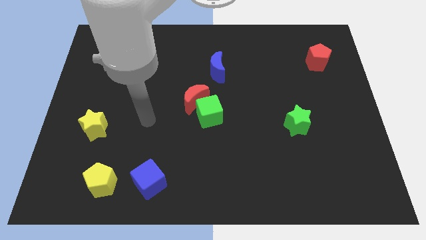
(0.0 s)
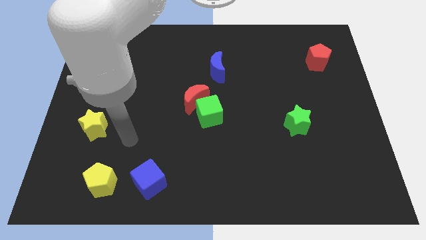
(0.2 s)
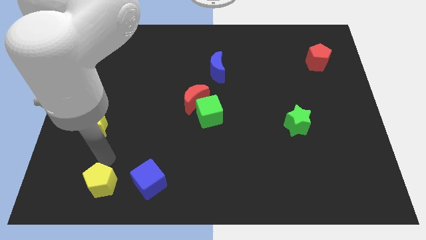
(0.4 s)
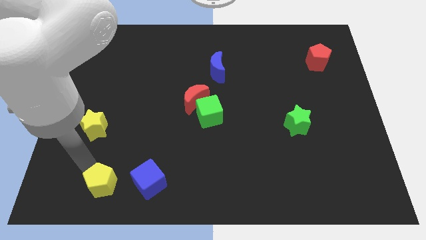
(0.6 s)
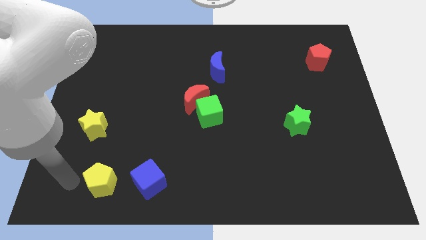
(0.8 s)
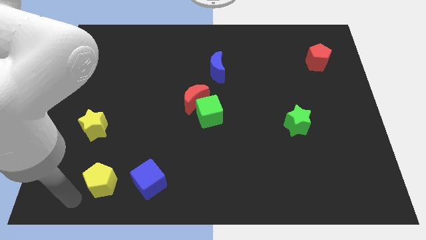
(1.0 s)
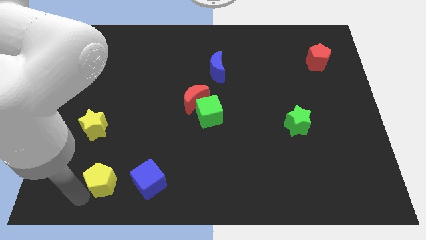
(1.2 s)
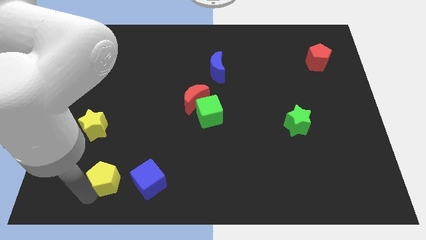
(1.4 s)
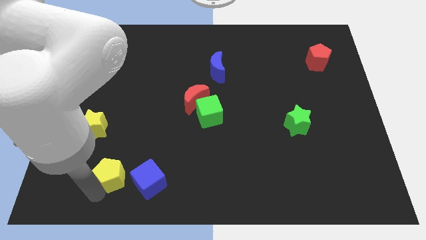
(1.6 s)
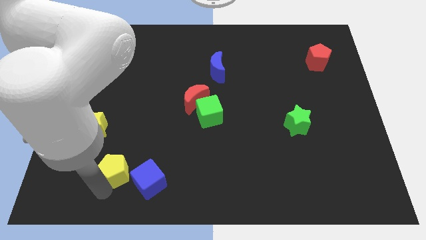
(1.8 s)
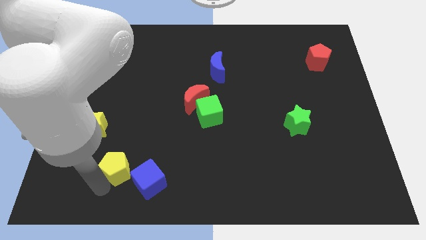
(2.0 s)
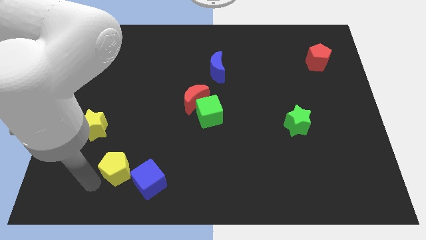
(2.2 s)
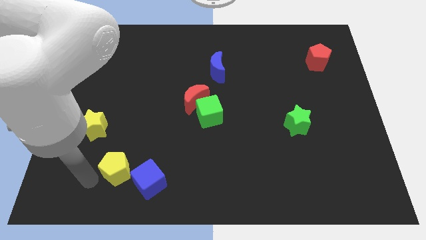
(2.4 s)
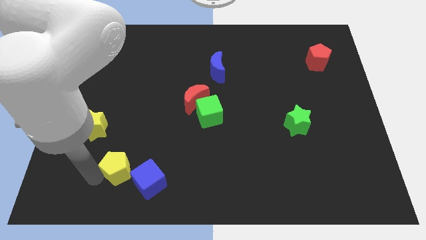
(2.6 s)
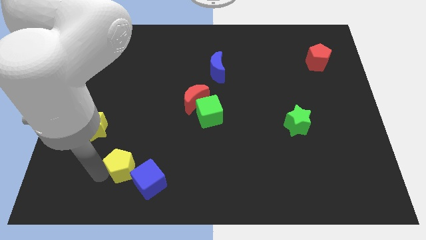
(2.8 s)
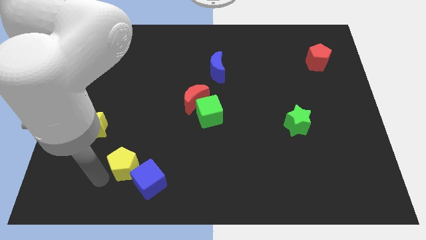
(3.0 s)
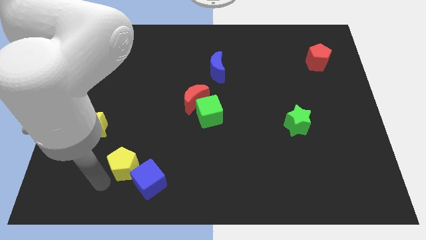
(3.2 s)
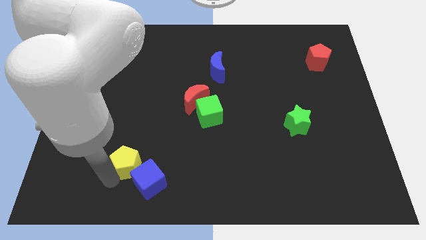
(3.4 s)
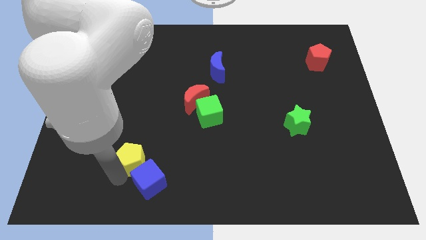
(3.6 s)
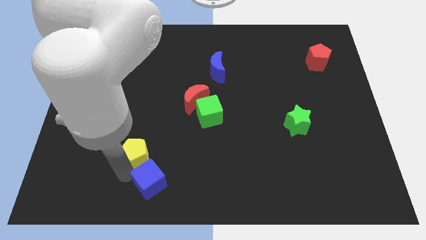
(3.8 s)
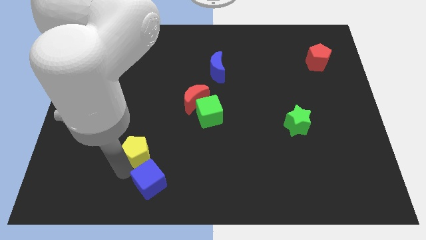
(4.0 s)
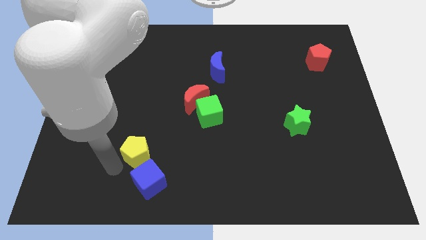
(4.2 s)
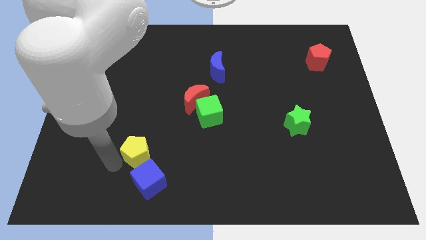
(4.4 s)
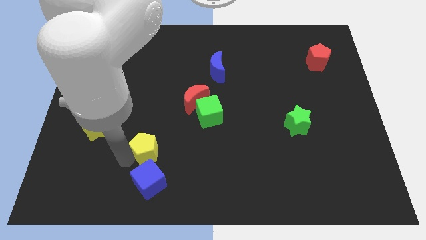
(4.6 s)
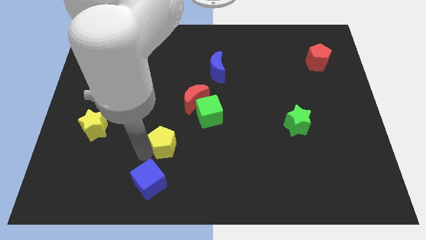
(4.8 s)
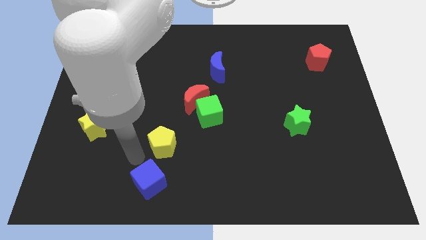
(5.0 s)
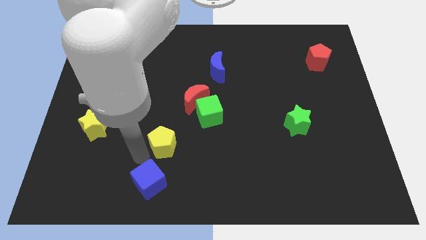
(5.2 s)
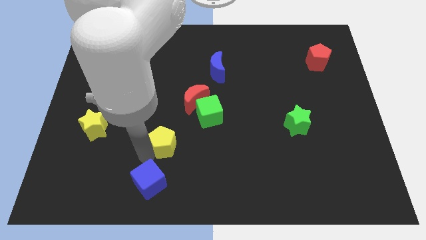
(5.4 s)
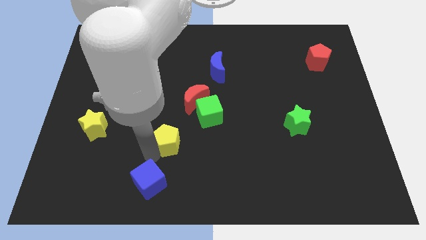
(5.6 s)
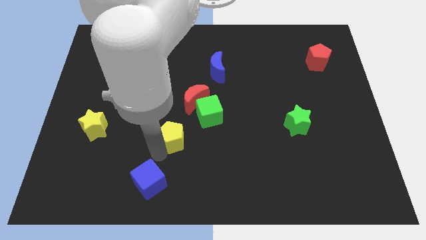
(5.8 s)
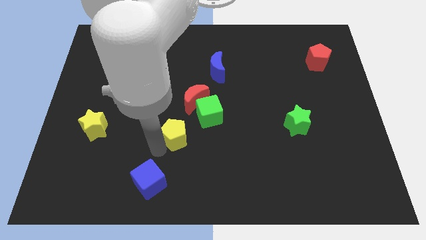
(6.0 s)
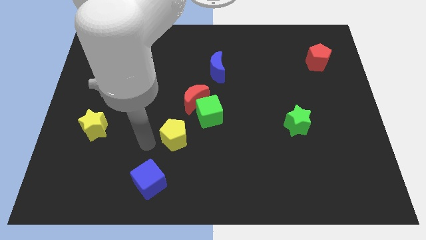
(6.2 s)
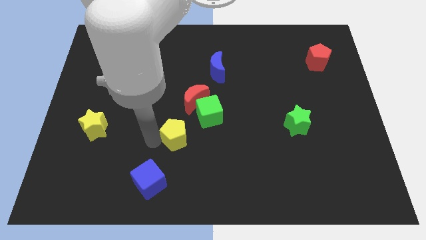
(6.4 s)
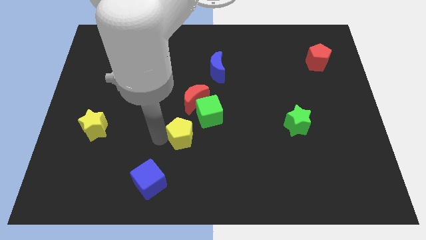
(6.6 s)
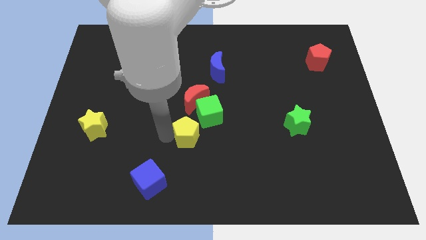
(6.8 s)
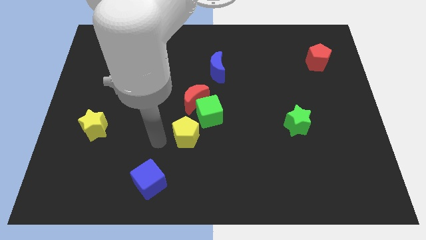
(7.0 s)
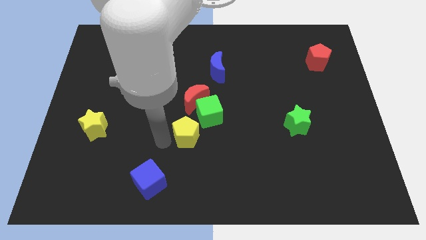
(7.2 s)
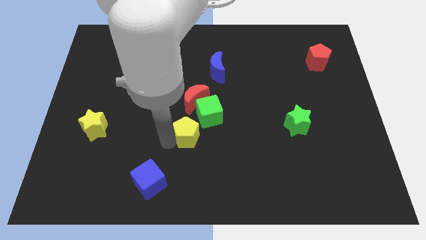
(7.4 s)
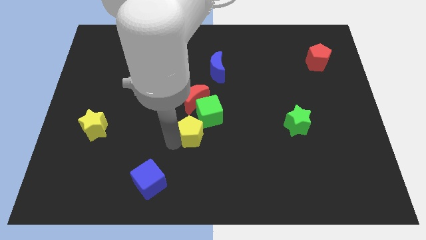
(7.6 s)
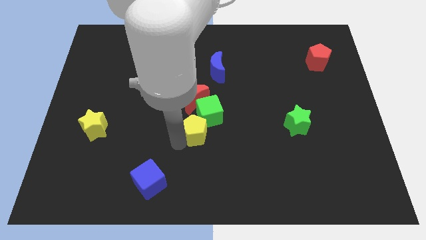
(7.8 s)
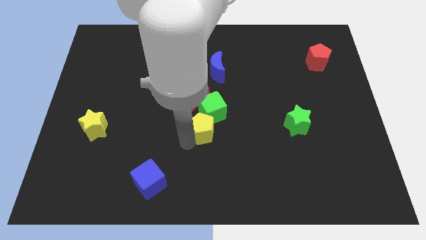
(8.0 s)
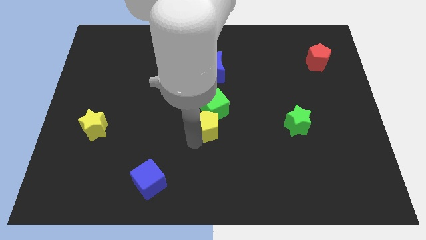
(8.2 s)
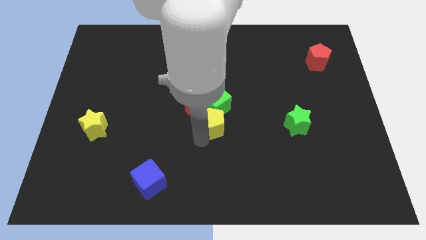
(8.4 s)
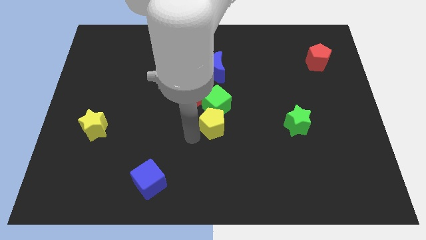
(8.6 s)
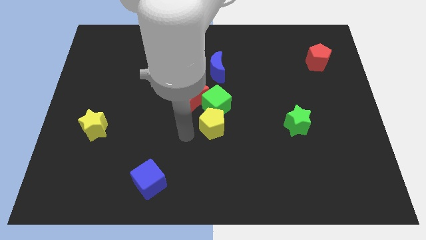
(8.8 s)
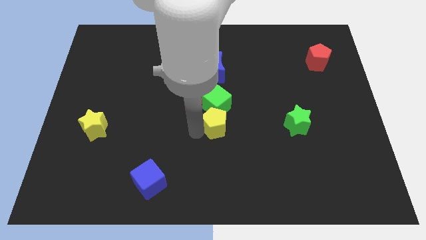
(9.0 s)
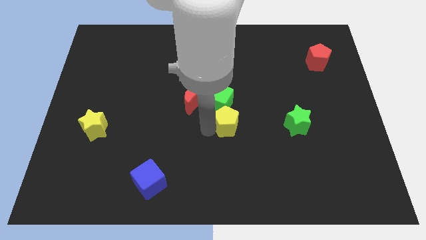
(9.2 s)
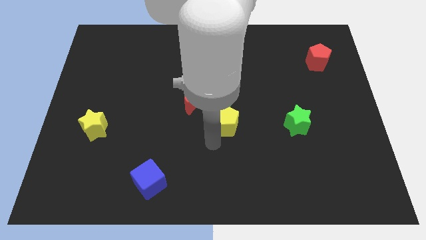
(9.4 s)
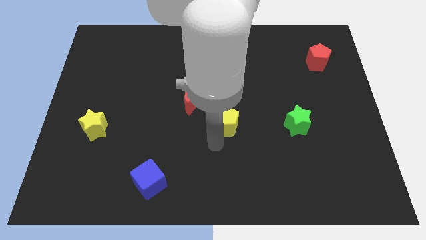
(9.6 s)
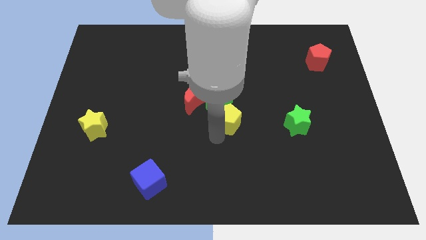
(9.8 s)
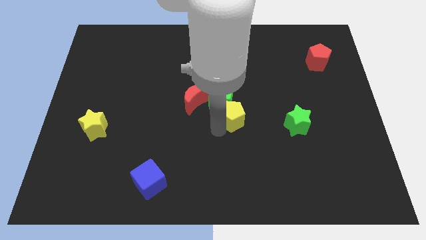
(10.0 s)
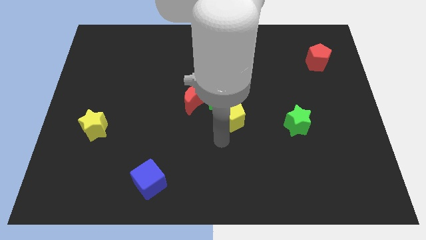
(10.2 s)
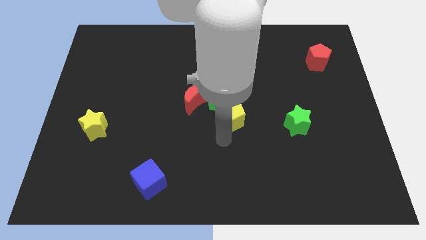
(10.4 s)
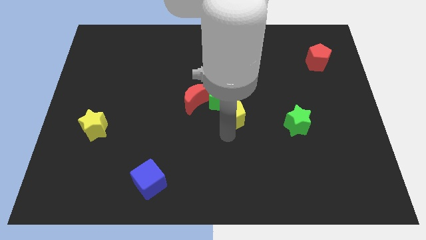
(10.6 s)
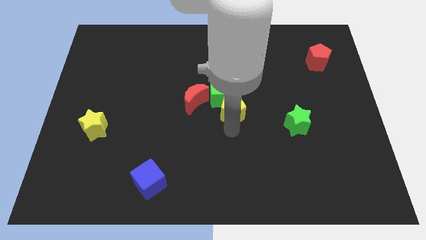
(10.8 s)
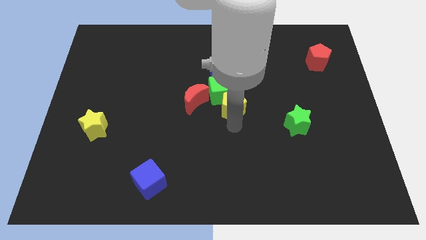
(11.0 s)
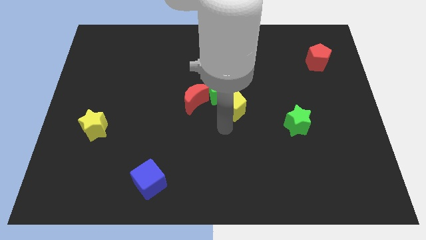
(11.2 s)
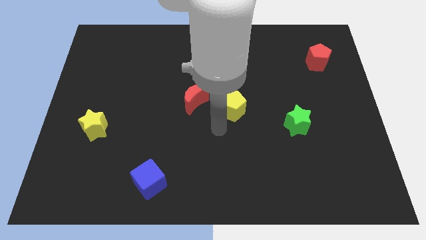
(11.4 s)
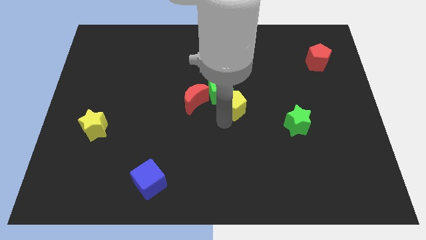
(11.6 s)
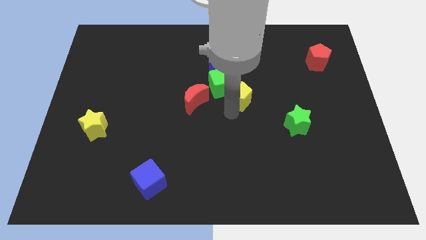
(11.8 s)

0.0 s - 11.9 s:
put the yellow pentagon to the bottom right side of the blue moon

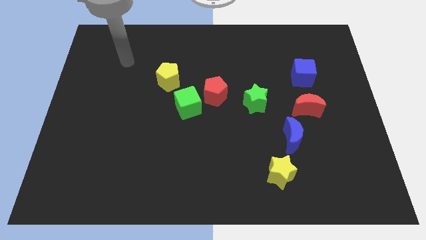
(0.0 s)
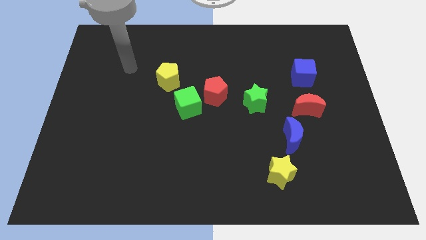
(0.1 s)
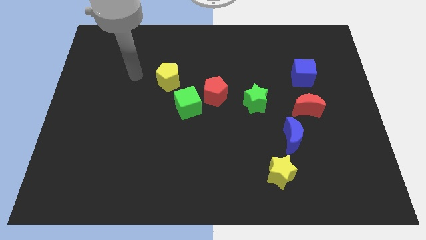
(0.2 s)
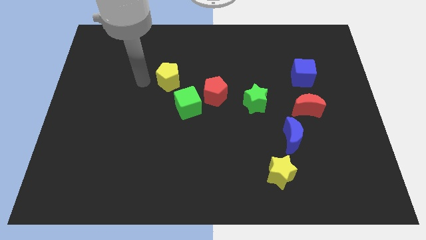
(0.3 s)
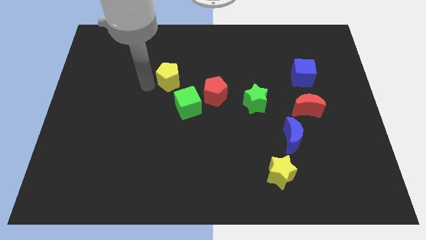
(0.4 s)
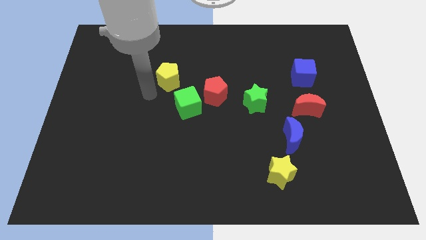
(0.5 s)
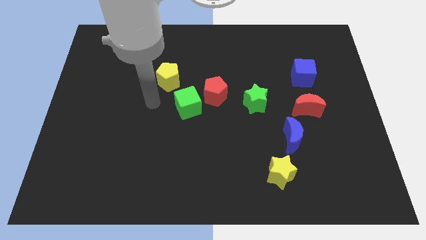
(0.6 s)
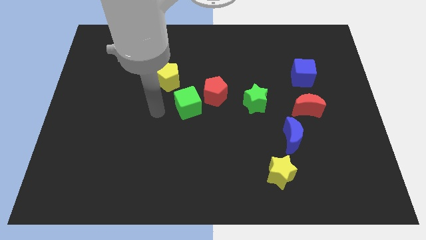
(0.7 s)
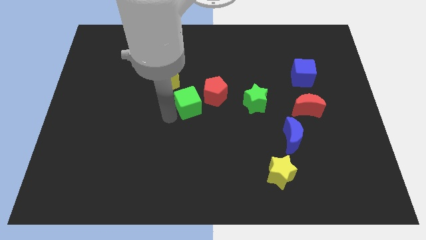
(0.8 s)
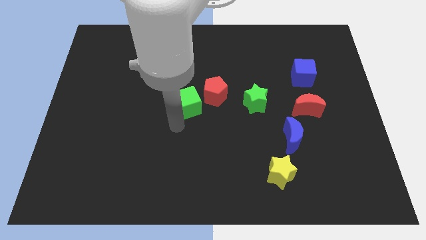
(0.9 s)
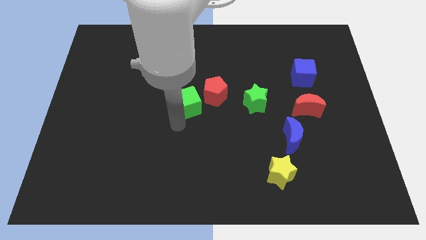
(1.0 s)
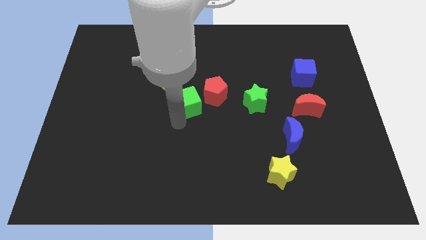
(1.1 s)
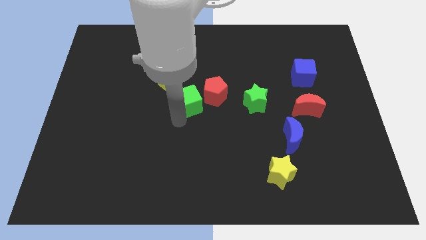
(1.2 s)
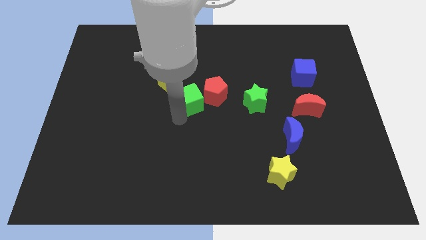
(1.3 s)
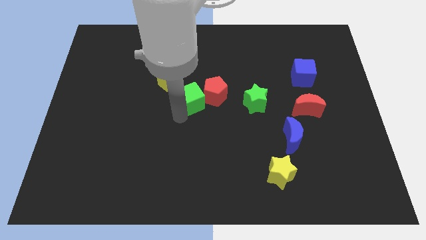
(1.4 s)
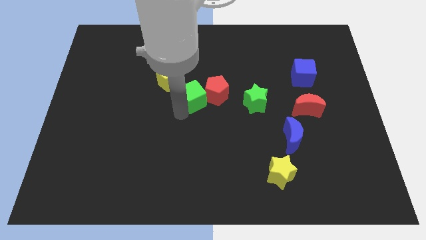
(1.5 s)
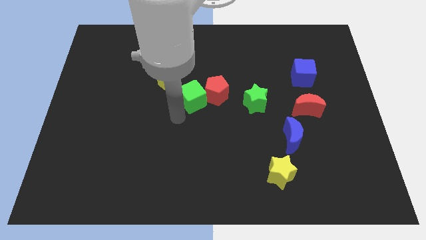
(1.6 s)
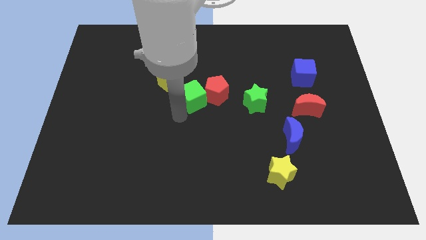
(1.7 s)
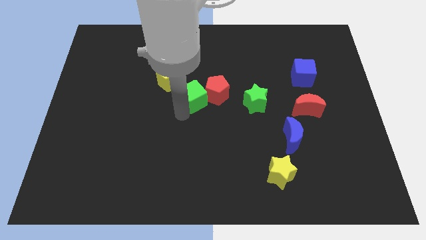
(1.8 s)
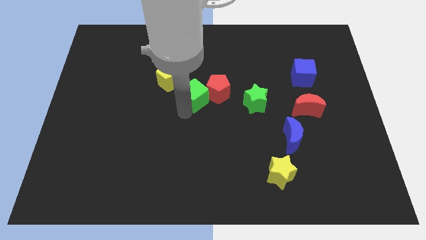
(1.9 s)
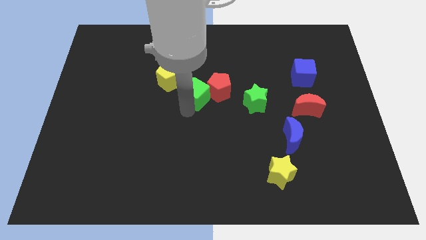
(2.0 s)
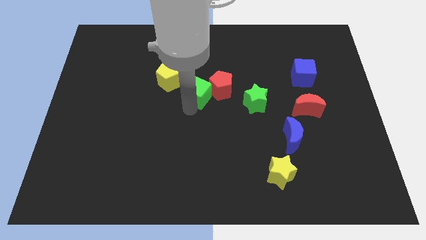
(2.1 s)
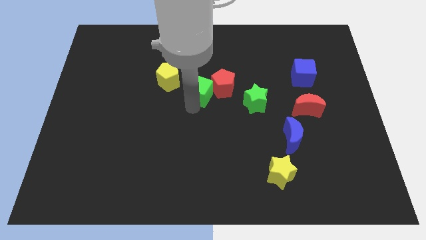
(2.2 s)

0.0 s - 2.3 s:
push the green cube to the right side of the yellow pentagon
